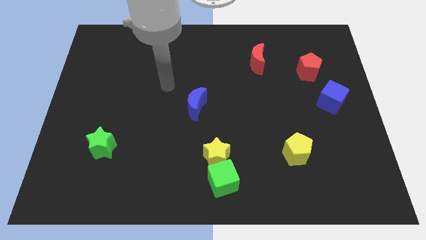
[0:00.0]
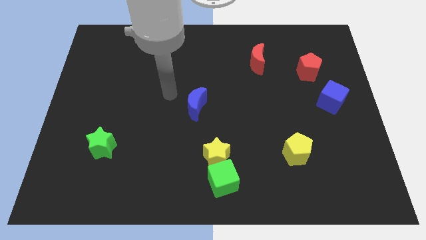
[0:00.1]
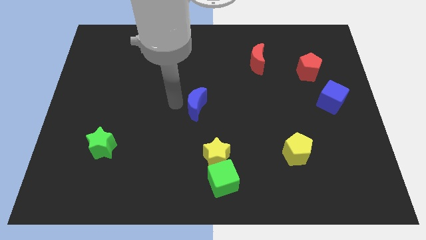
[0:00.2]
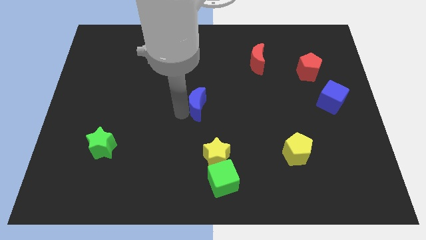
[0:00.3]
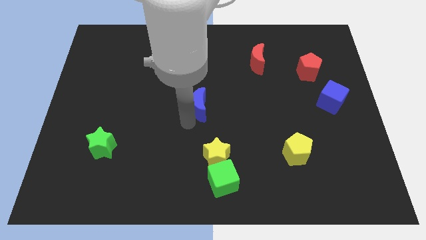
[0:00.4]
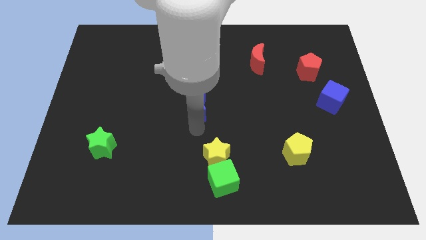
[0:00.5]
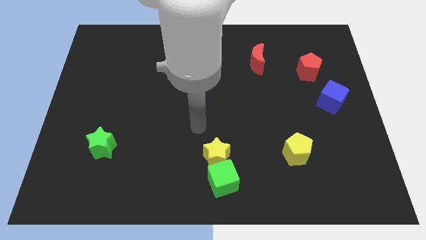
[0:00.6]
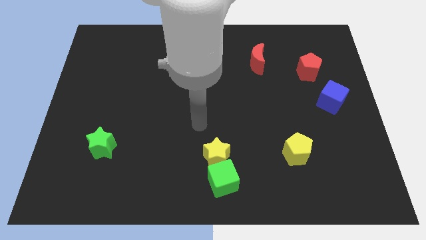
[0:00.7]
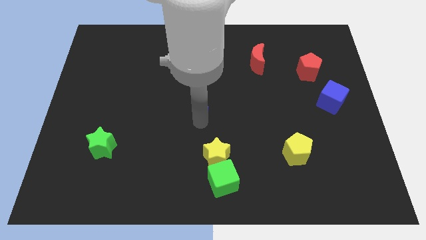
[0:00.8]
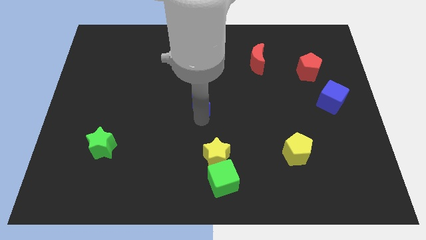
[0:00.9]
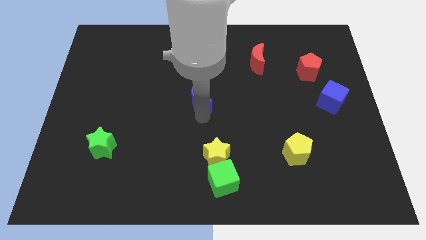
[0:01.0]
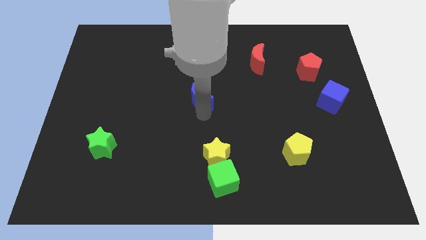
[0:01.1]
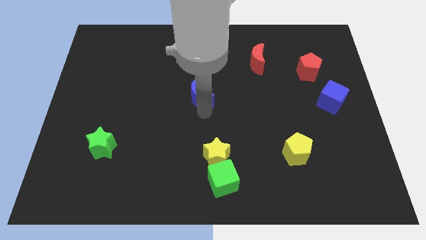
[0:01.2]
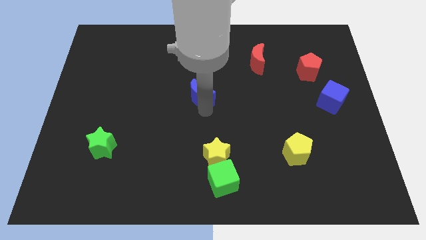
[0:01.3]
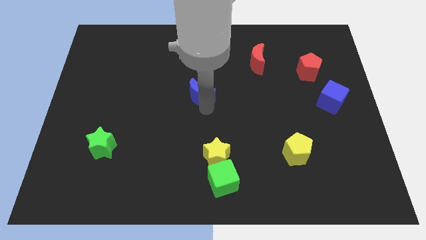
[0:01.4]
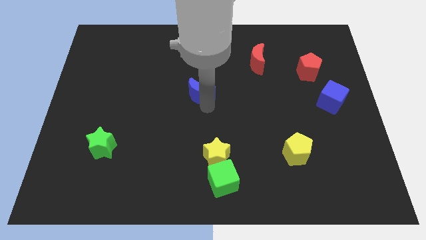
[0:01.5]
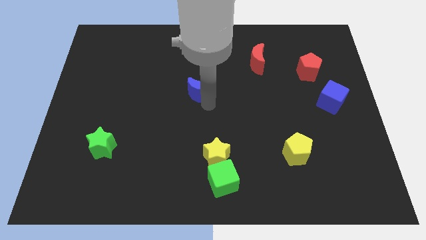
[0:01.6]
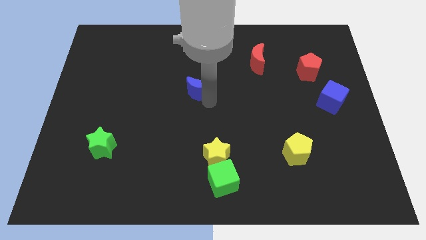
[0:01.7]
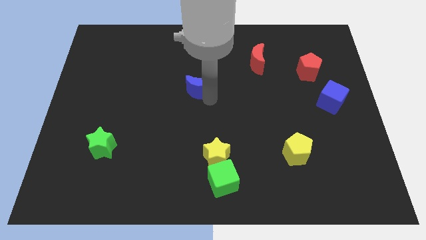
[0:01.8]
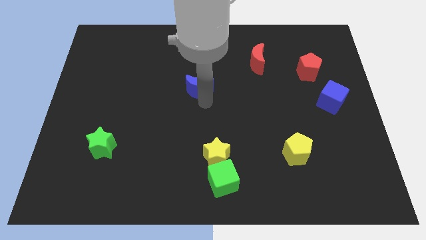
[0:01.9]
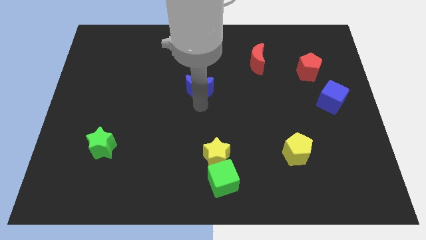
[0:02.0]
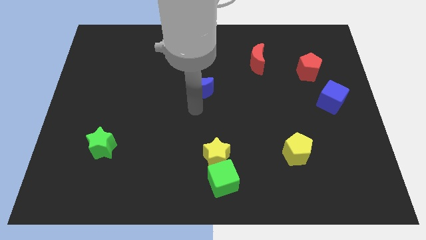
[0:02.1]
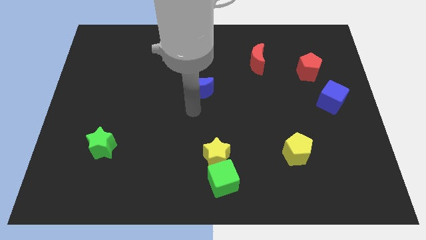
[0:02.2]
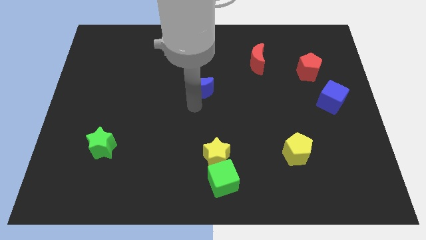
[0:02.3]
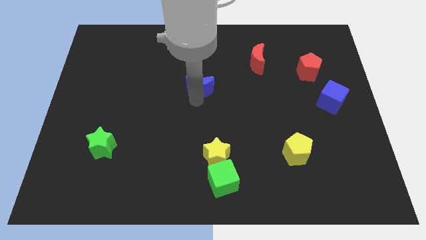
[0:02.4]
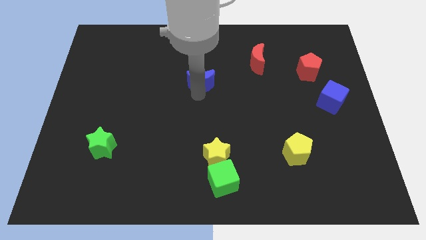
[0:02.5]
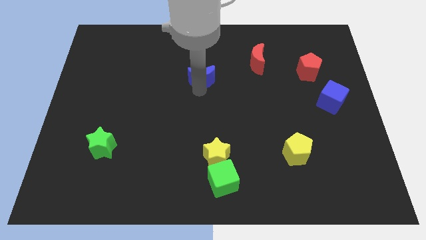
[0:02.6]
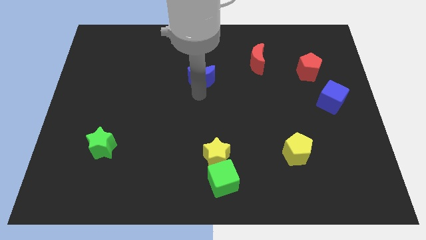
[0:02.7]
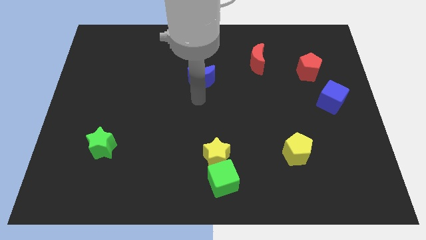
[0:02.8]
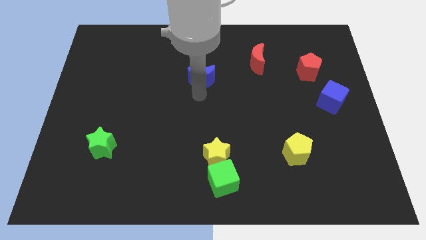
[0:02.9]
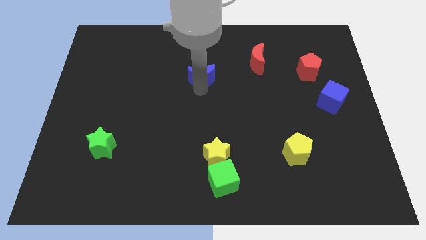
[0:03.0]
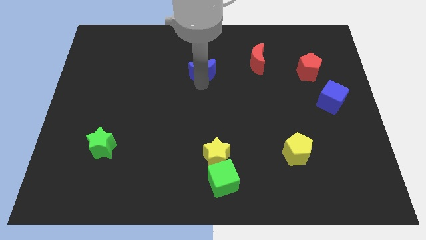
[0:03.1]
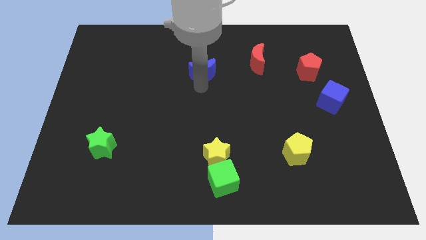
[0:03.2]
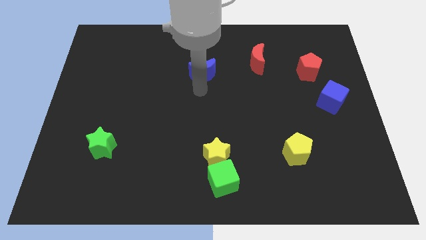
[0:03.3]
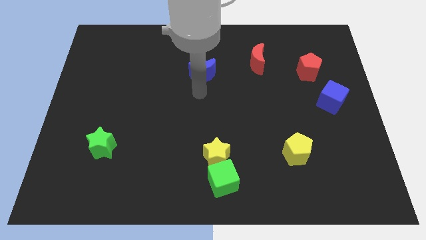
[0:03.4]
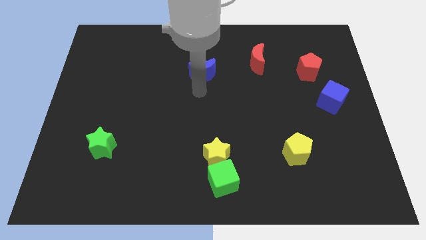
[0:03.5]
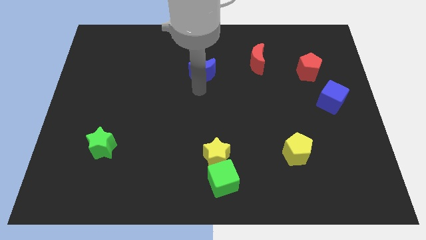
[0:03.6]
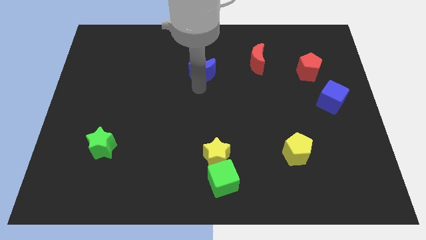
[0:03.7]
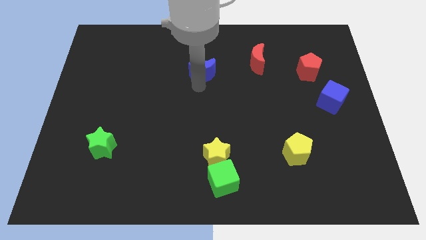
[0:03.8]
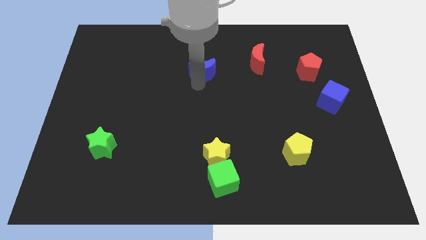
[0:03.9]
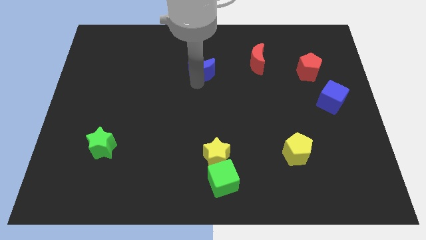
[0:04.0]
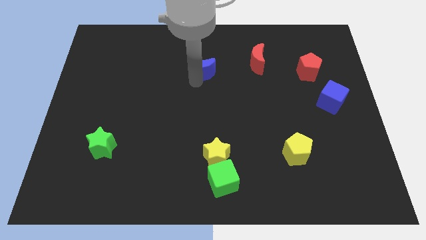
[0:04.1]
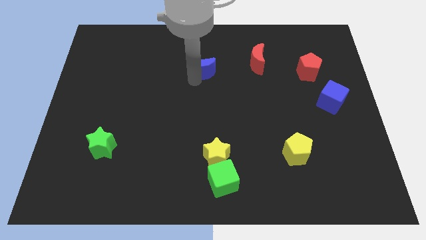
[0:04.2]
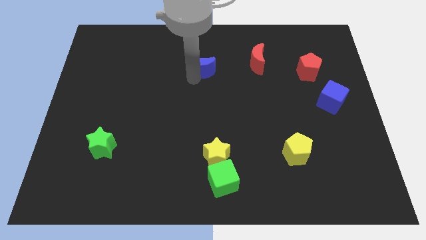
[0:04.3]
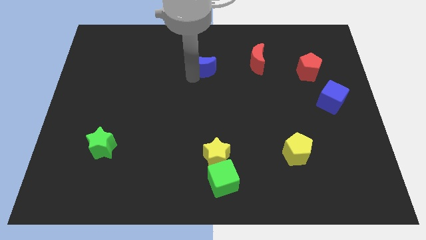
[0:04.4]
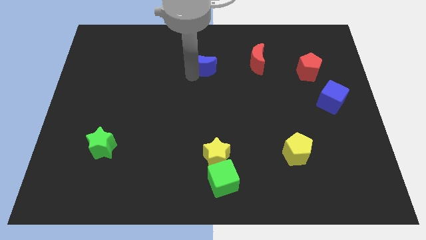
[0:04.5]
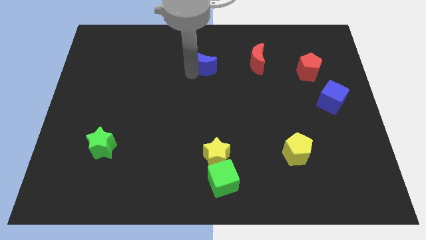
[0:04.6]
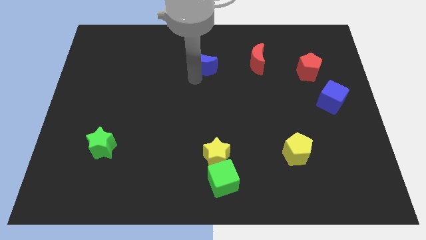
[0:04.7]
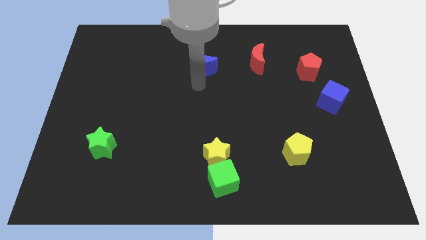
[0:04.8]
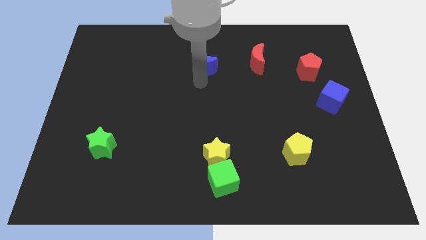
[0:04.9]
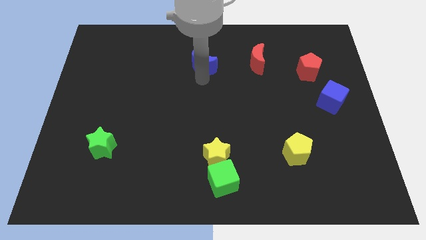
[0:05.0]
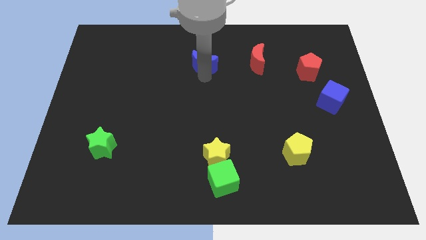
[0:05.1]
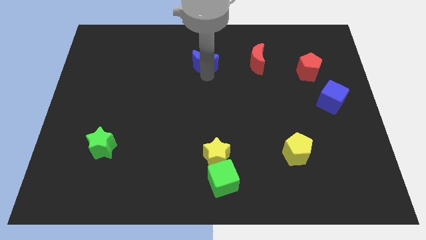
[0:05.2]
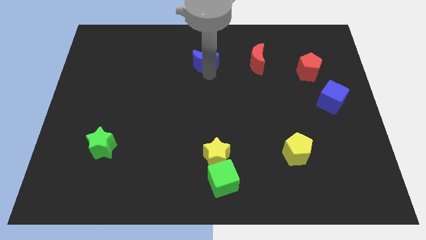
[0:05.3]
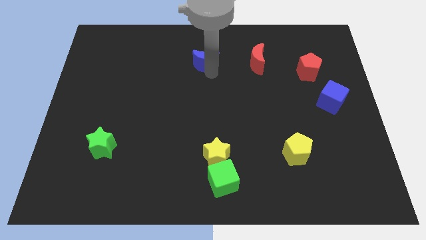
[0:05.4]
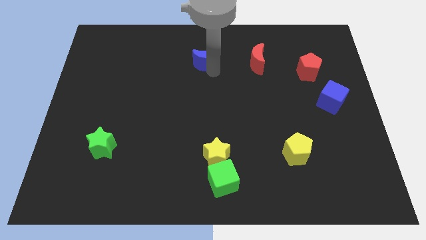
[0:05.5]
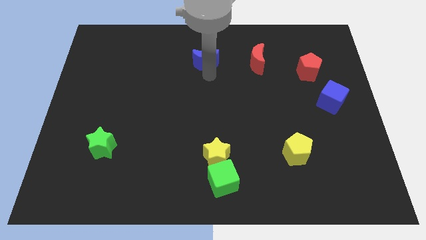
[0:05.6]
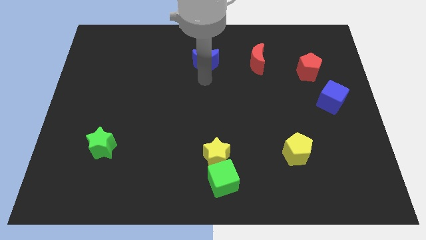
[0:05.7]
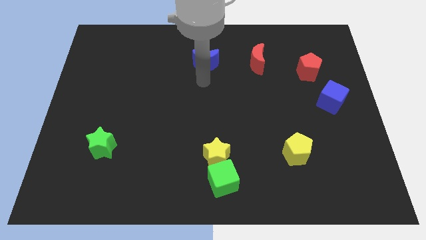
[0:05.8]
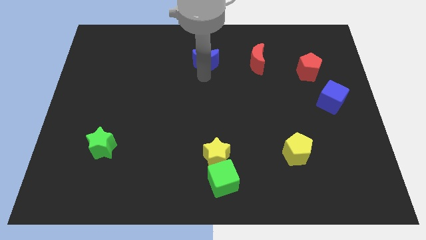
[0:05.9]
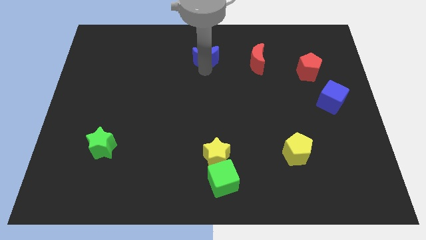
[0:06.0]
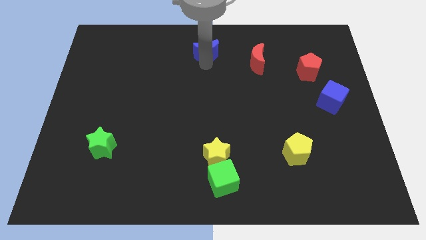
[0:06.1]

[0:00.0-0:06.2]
put the blue moon to the towards your base
